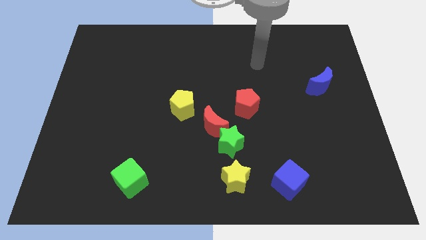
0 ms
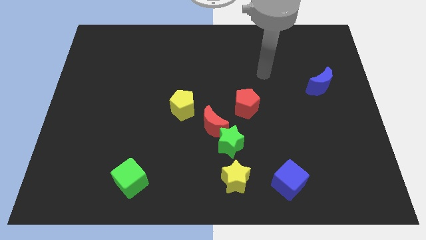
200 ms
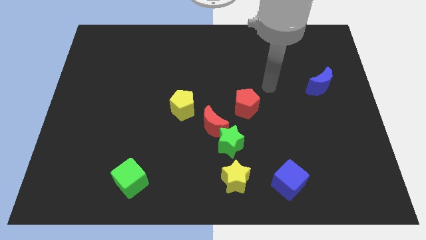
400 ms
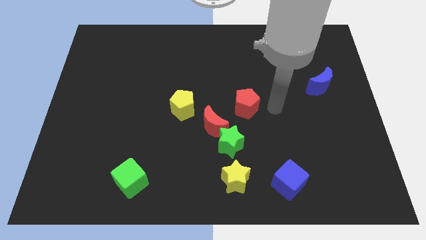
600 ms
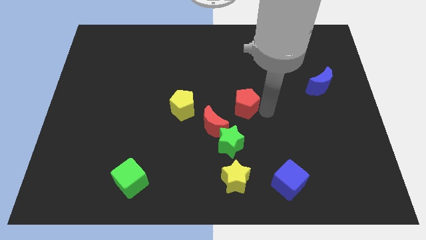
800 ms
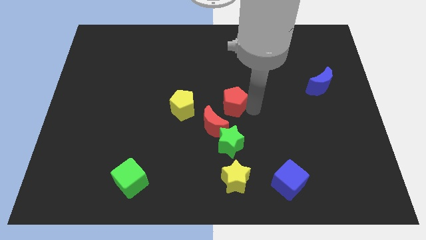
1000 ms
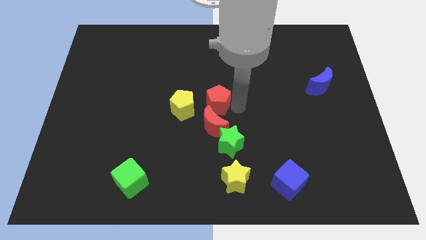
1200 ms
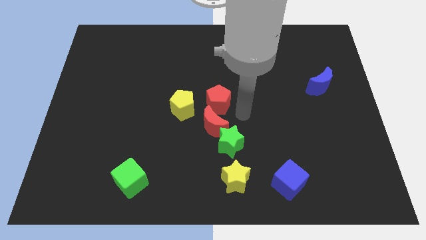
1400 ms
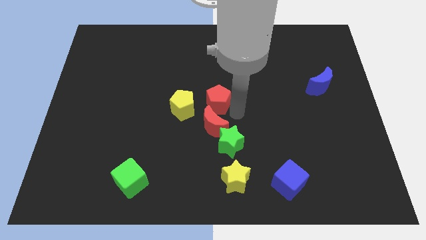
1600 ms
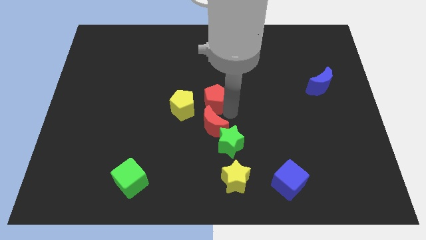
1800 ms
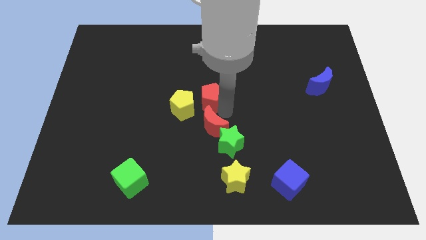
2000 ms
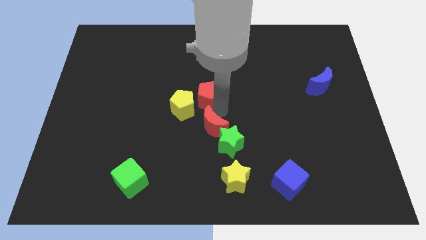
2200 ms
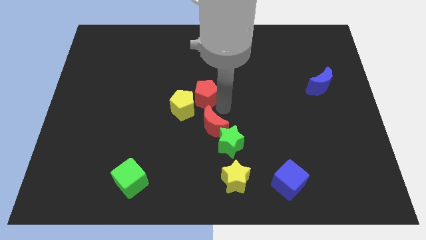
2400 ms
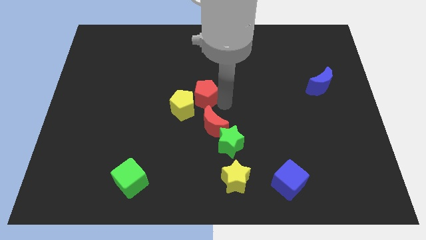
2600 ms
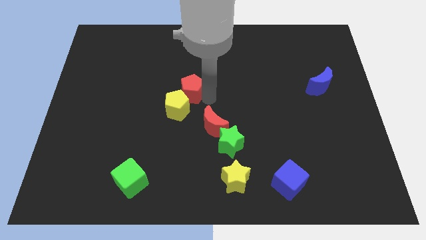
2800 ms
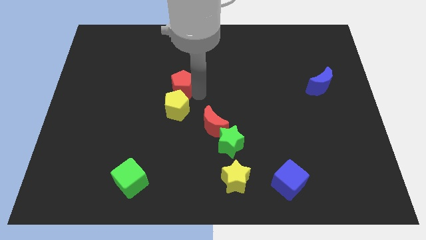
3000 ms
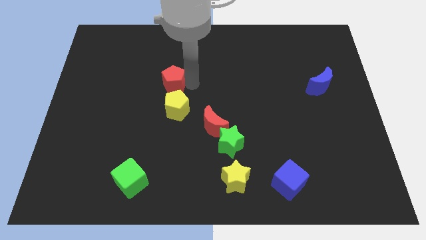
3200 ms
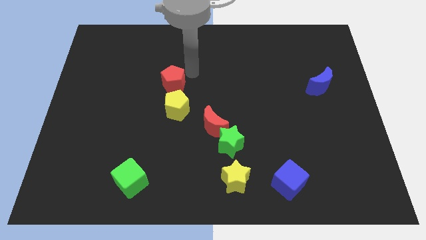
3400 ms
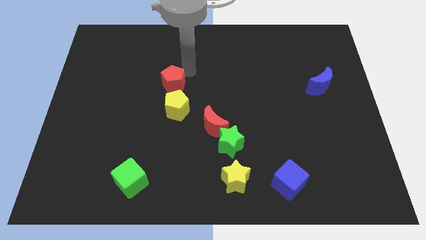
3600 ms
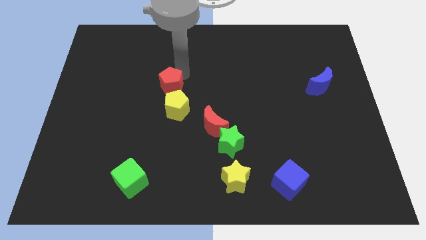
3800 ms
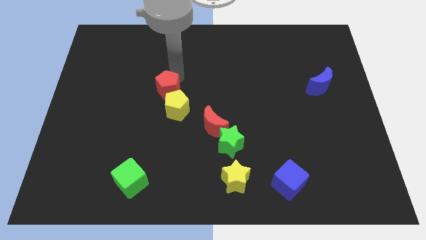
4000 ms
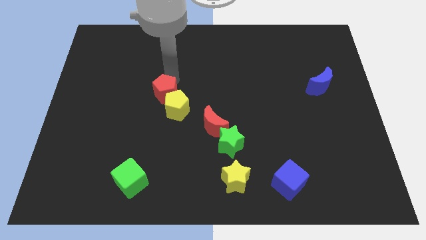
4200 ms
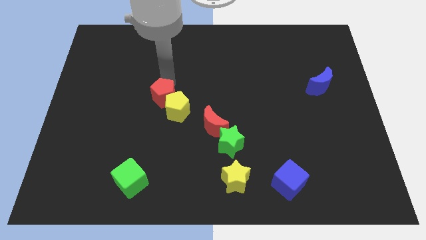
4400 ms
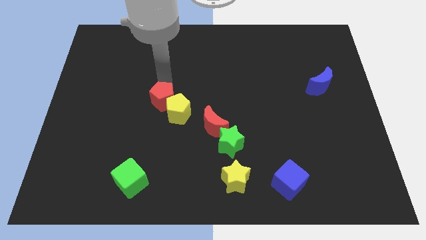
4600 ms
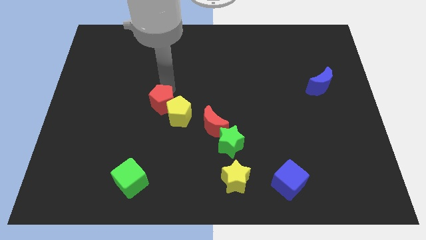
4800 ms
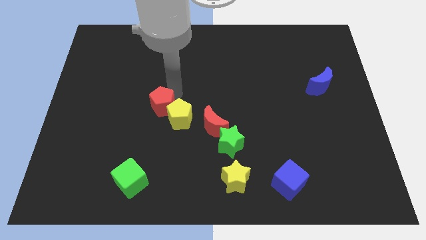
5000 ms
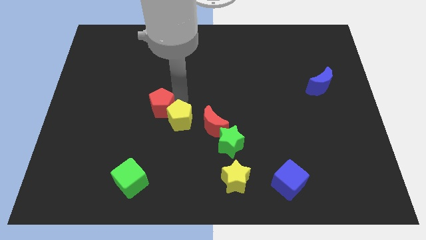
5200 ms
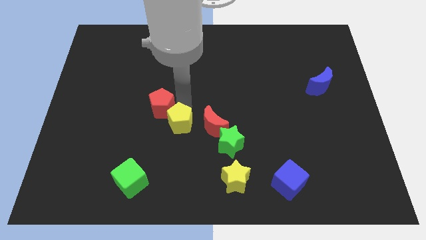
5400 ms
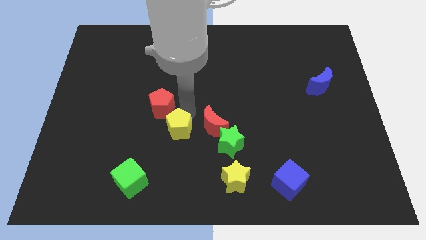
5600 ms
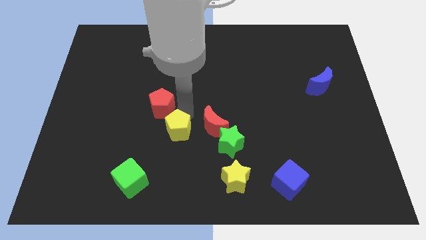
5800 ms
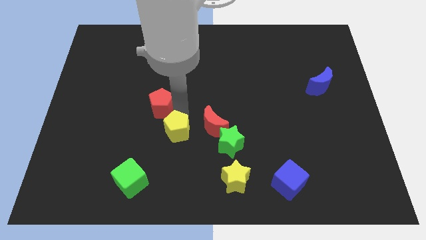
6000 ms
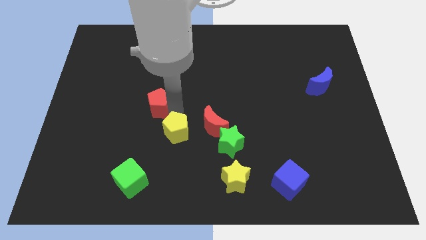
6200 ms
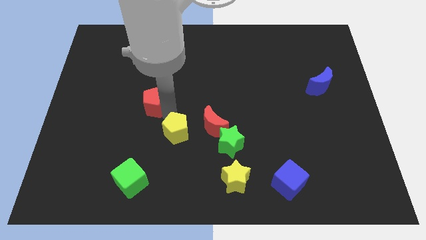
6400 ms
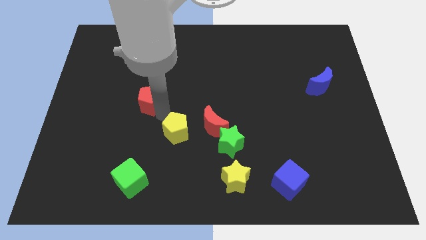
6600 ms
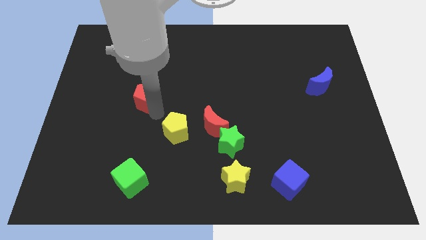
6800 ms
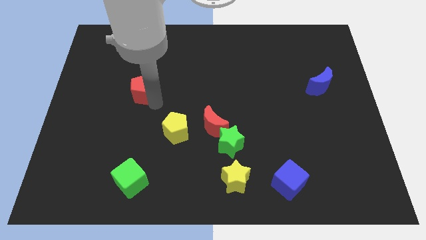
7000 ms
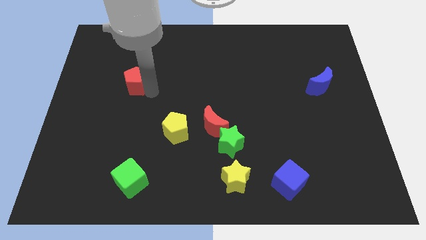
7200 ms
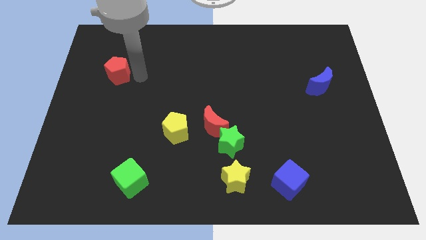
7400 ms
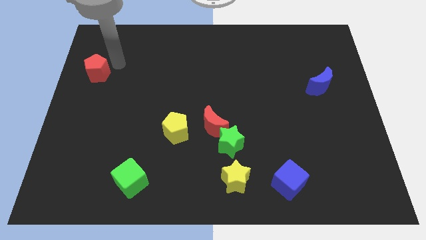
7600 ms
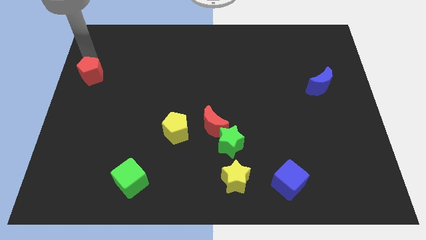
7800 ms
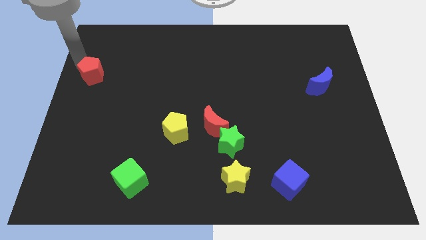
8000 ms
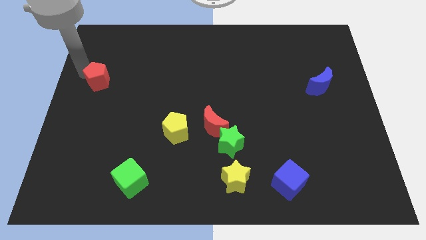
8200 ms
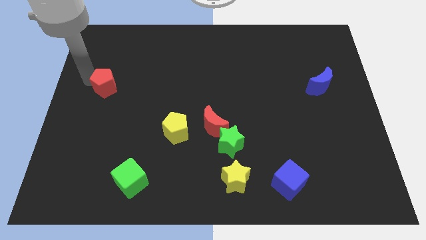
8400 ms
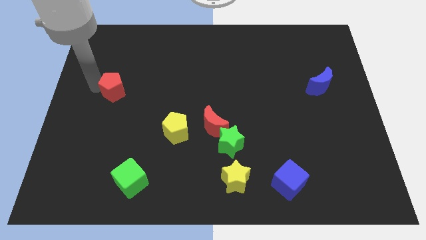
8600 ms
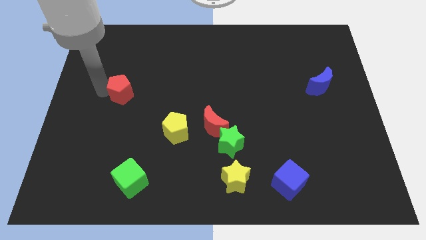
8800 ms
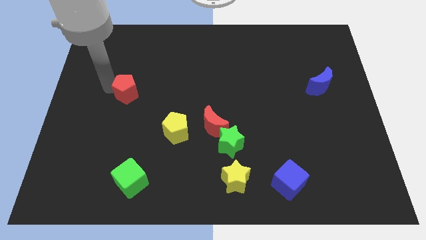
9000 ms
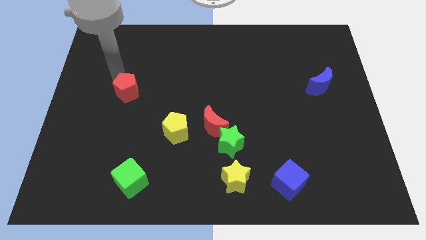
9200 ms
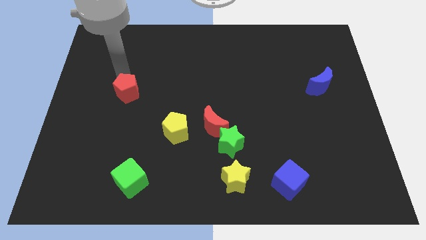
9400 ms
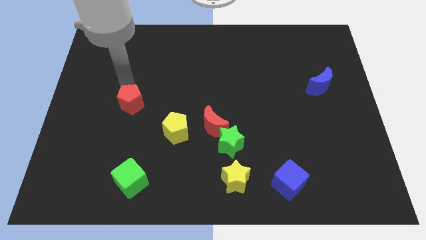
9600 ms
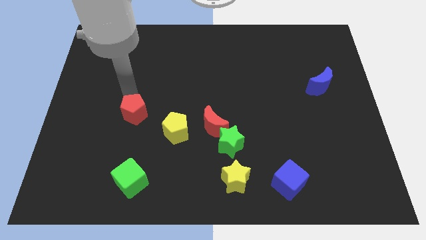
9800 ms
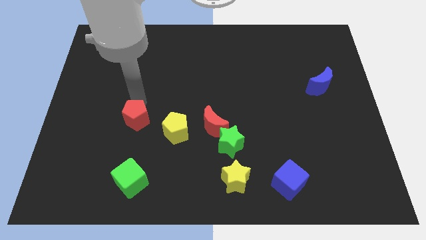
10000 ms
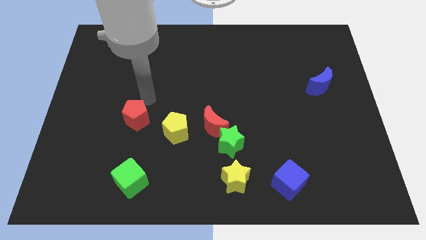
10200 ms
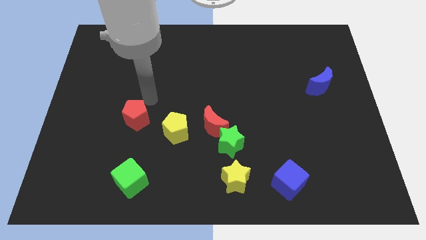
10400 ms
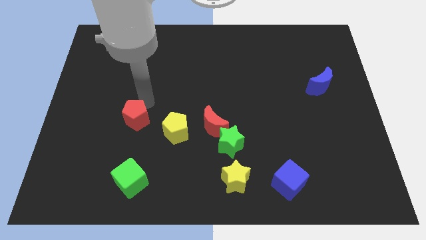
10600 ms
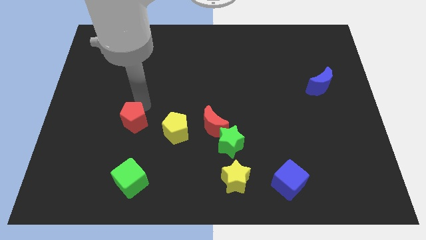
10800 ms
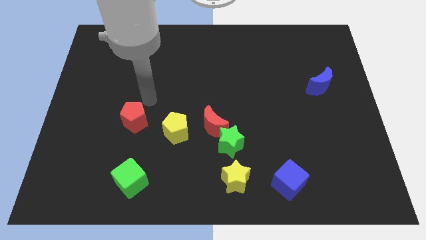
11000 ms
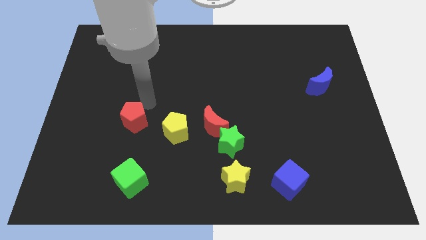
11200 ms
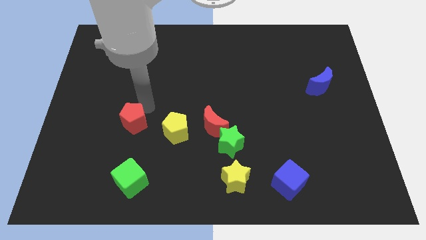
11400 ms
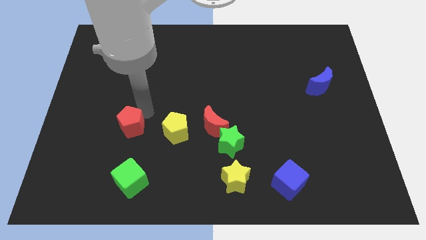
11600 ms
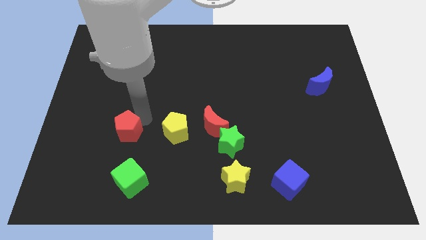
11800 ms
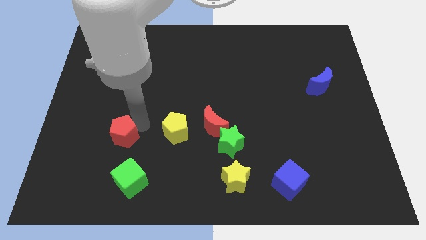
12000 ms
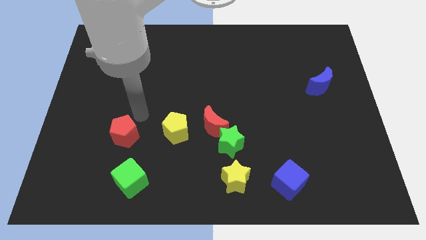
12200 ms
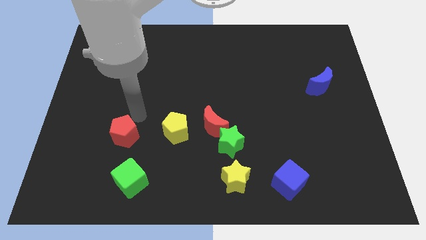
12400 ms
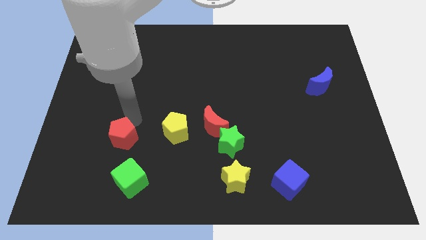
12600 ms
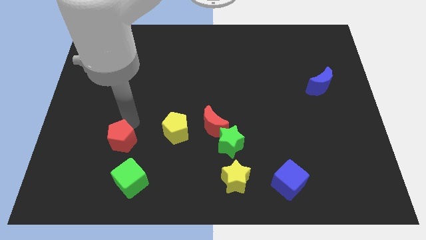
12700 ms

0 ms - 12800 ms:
move the red pentagon diagonally up and to the left of the green cube

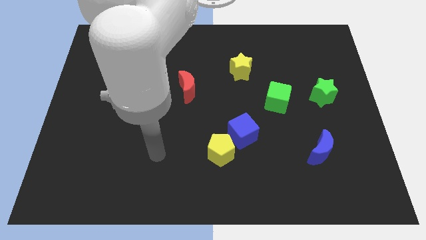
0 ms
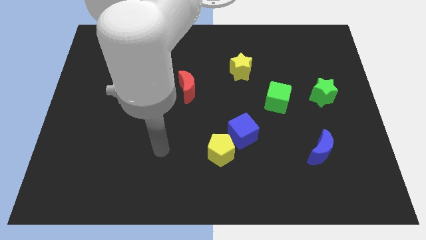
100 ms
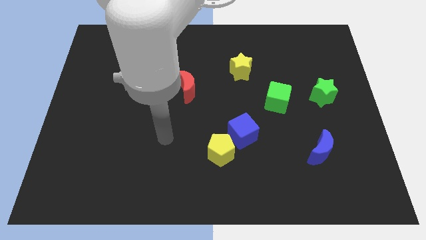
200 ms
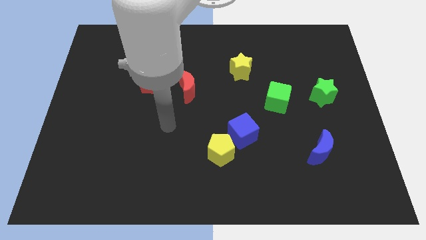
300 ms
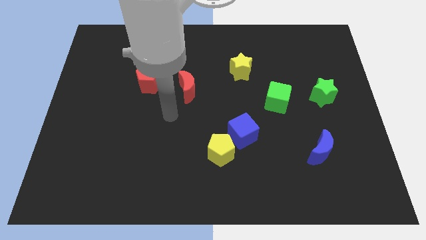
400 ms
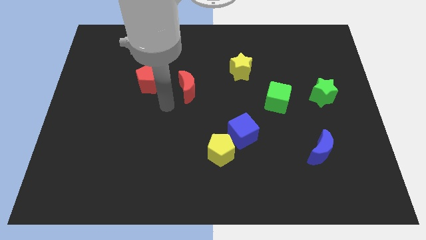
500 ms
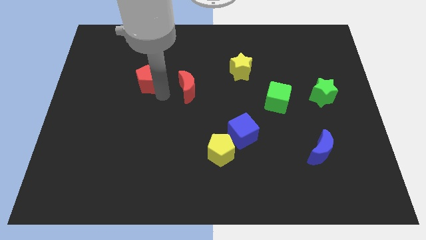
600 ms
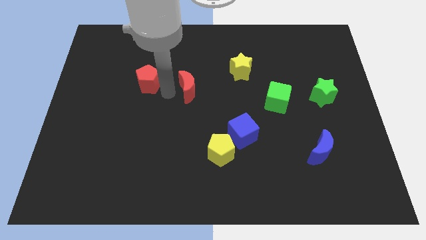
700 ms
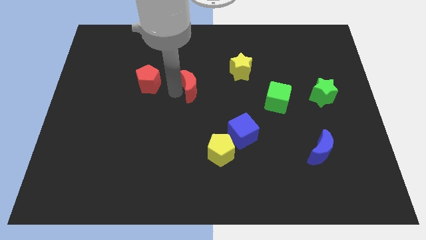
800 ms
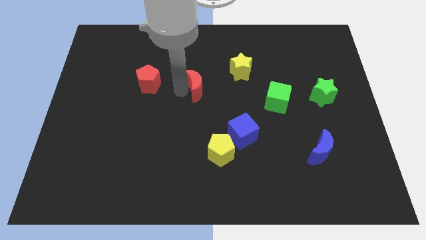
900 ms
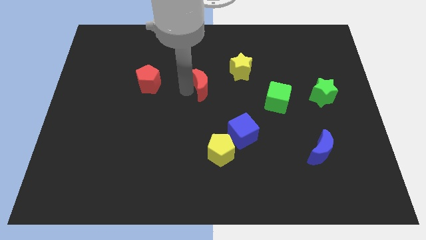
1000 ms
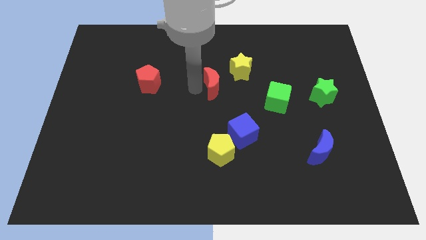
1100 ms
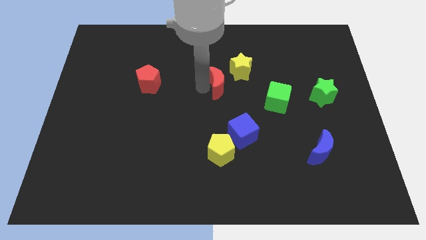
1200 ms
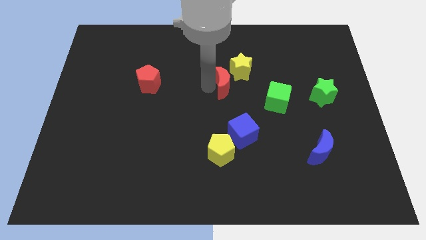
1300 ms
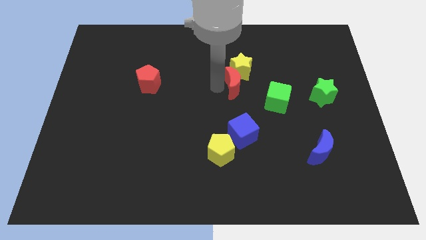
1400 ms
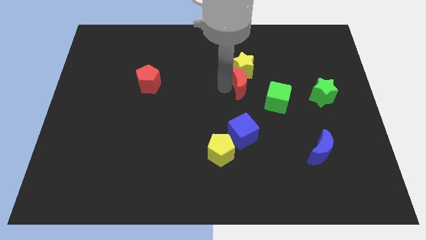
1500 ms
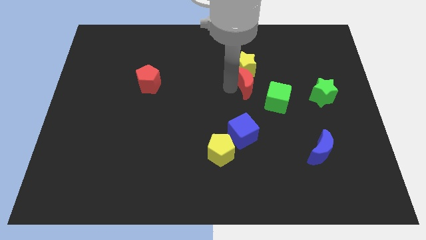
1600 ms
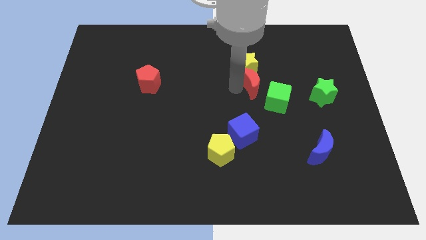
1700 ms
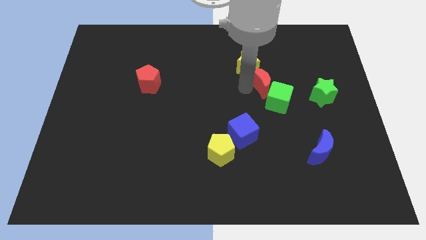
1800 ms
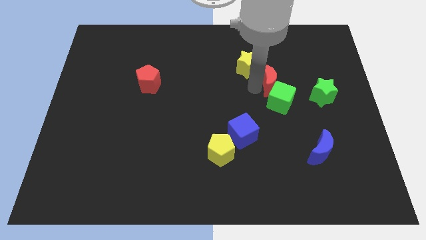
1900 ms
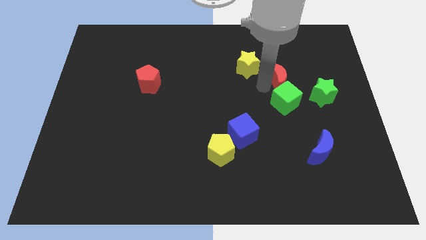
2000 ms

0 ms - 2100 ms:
push the red moon to the right side of the yellow star
